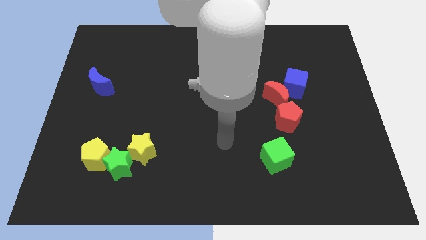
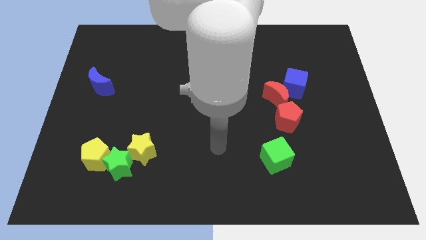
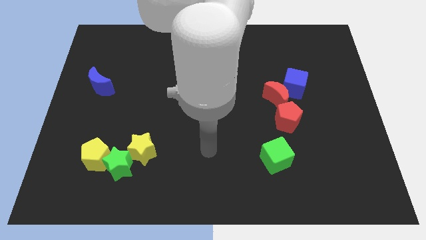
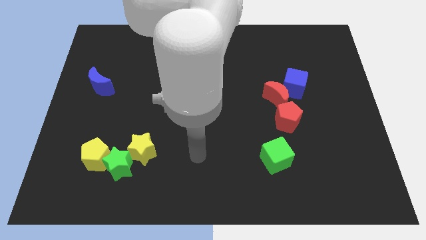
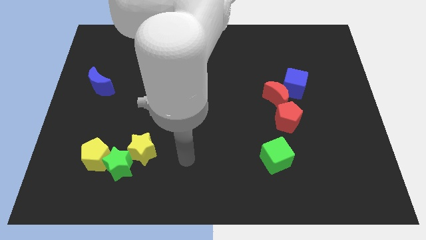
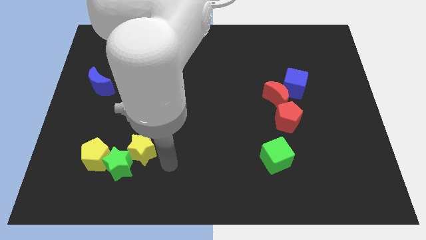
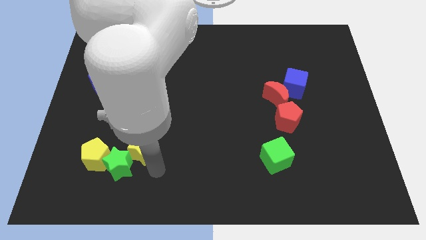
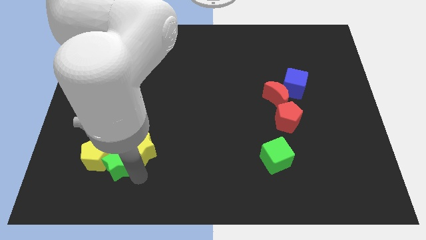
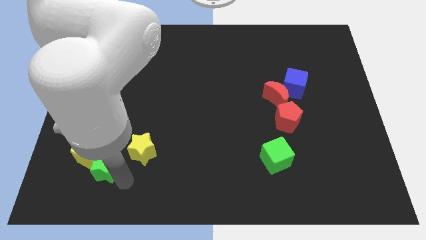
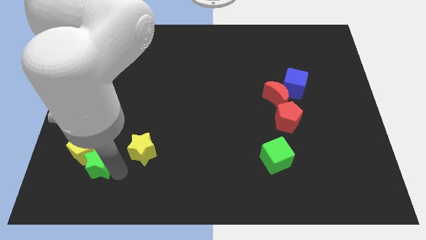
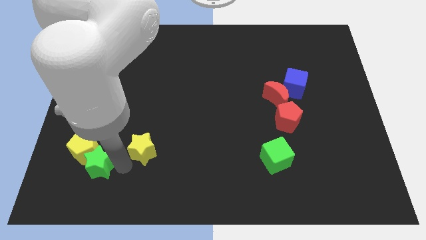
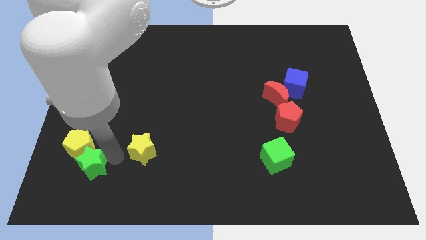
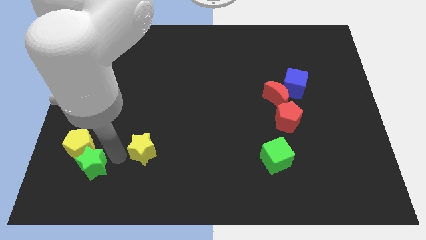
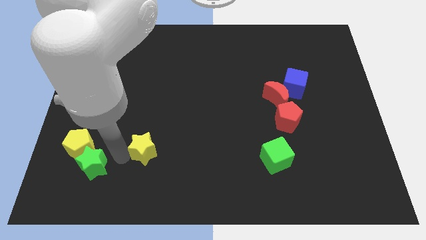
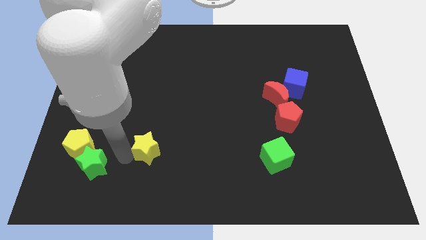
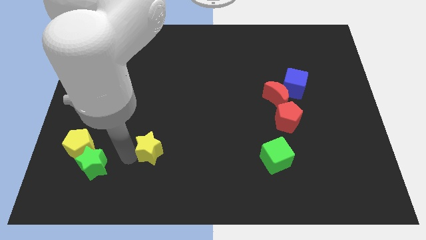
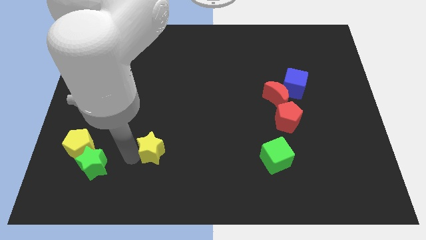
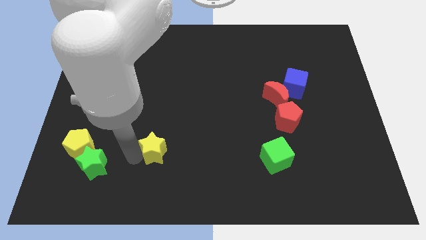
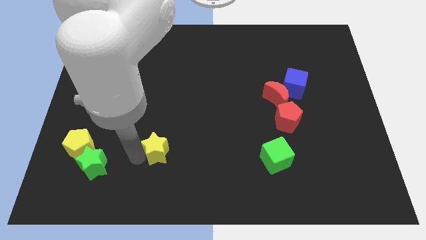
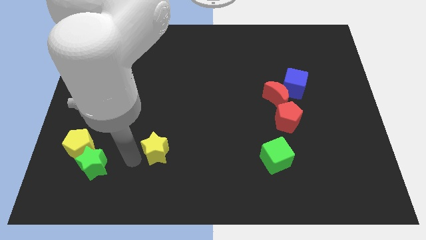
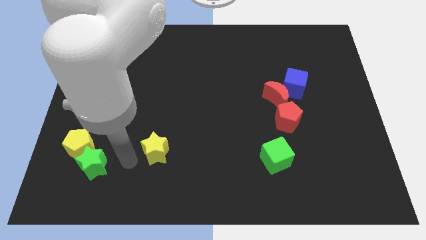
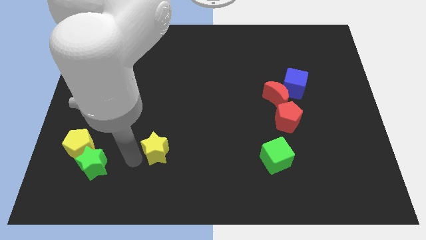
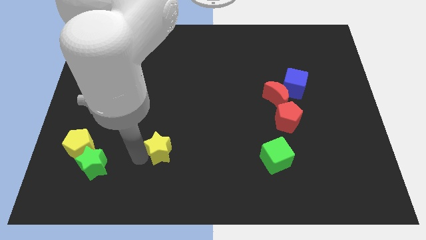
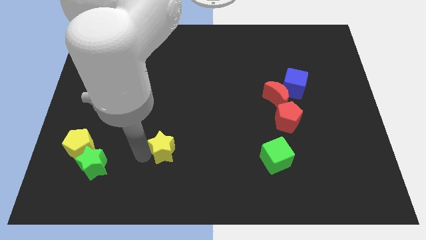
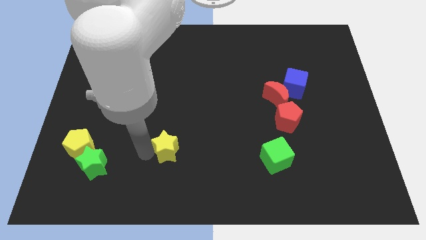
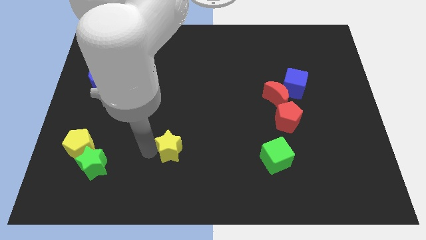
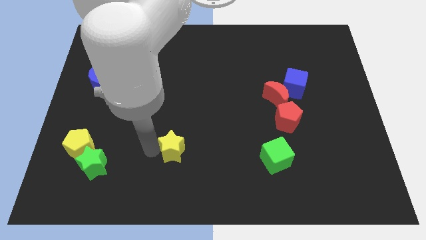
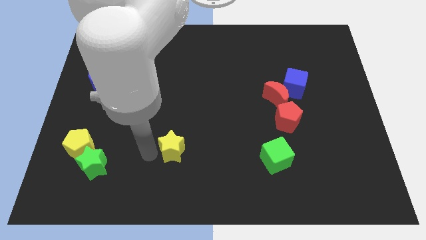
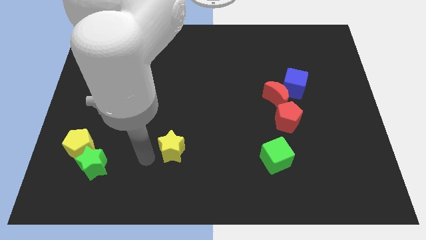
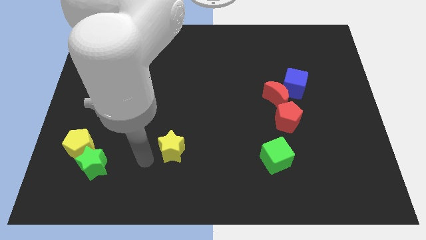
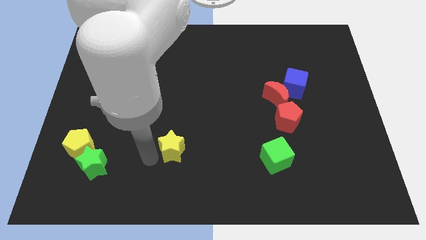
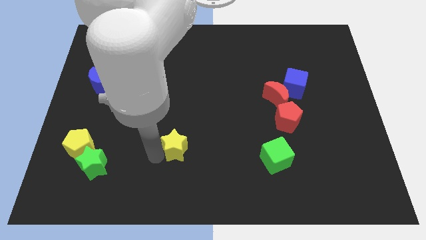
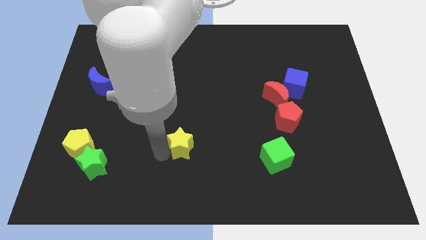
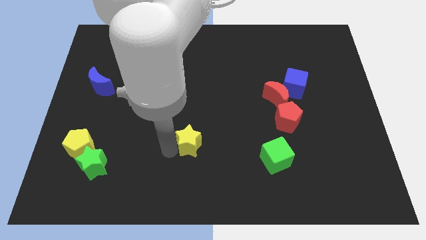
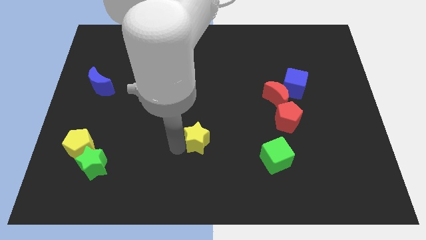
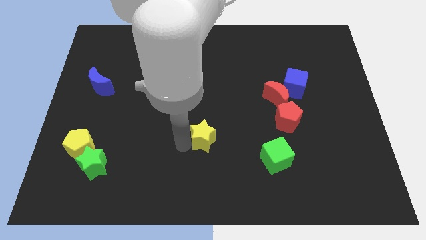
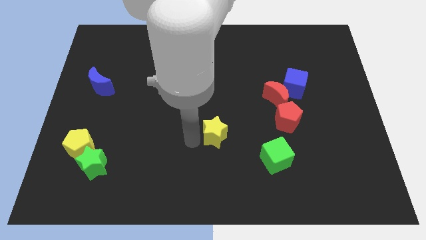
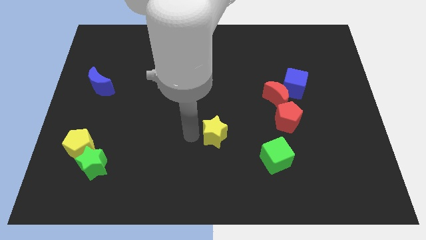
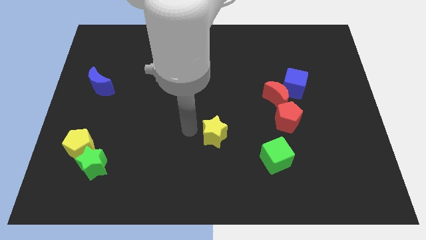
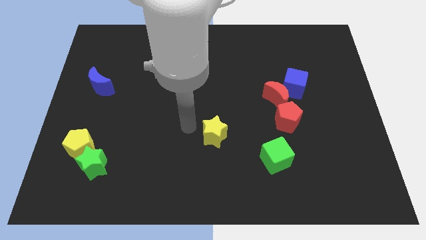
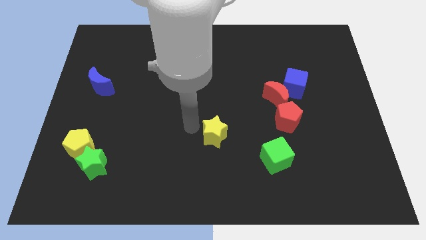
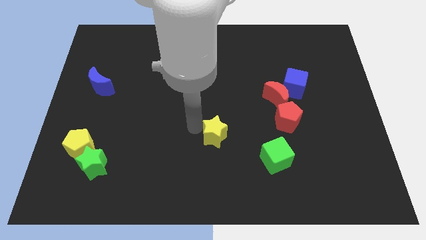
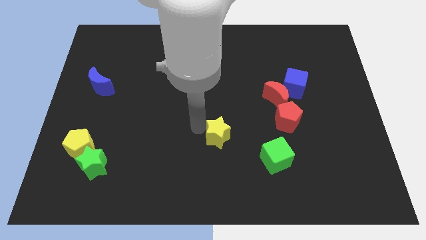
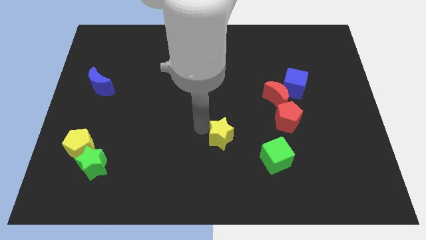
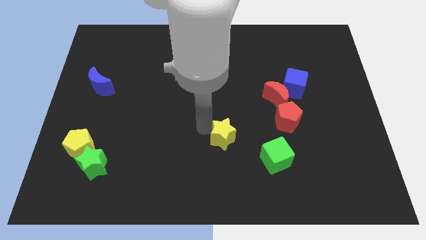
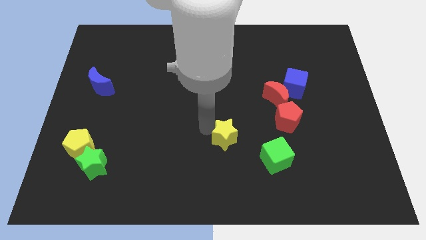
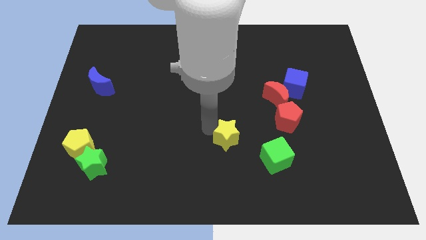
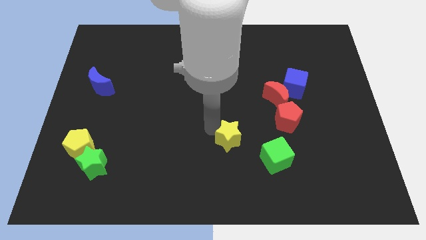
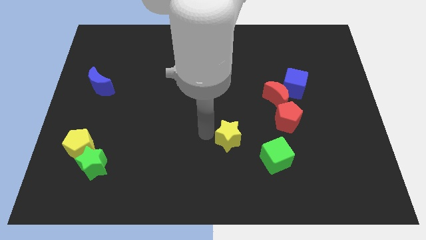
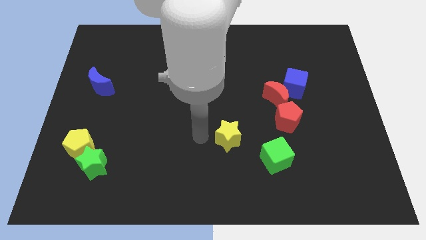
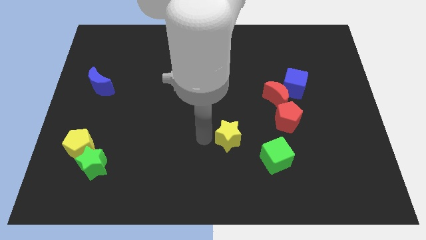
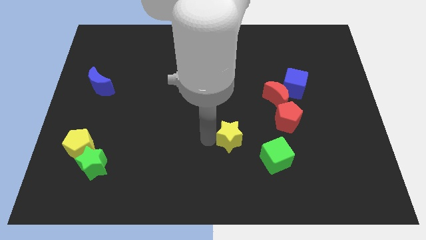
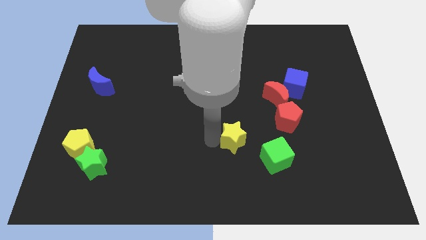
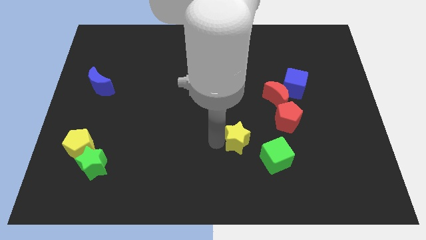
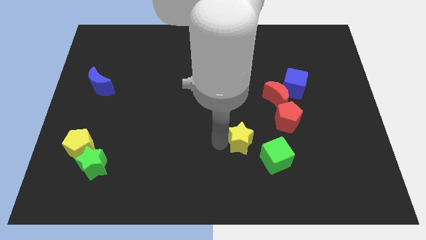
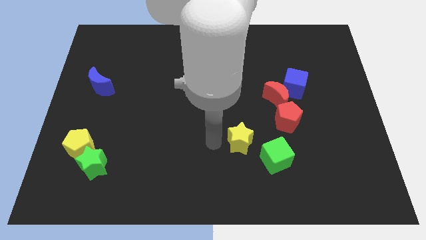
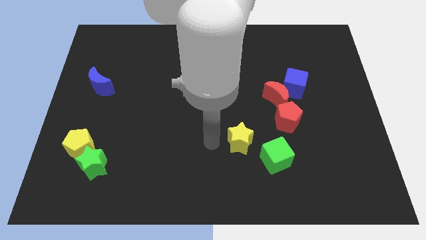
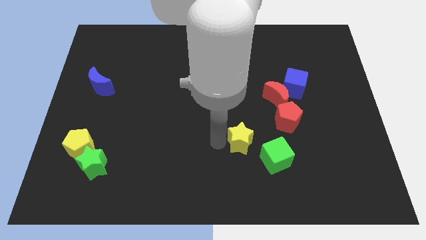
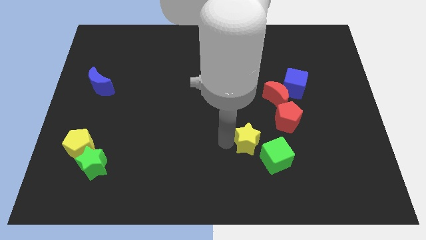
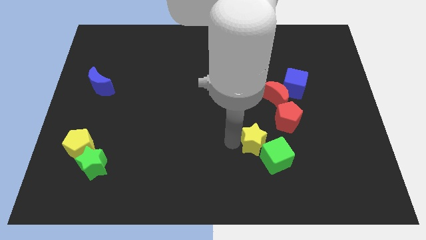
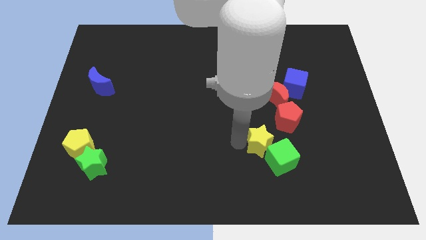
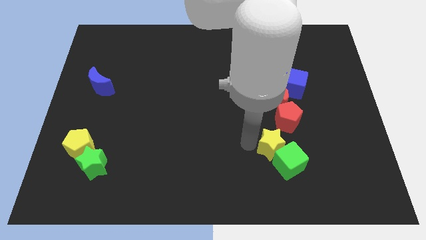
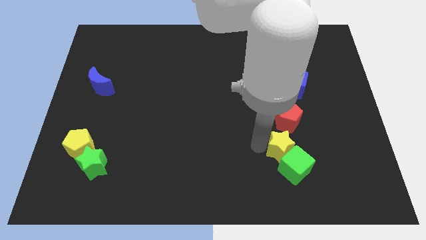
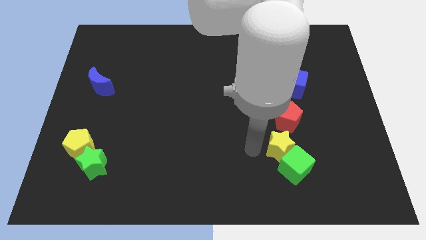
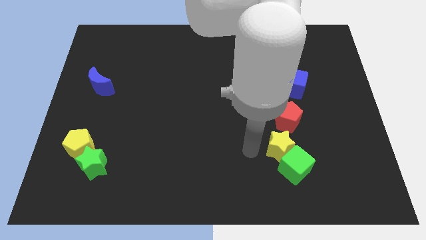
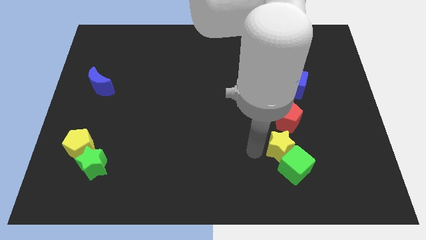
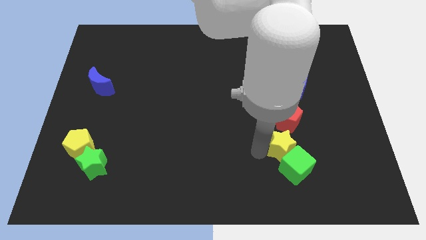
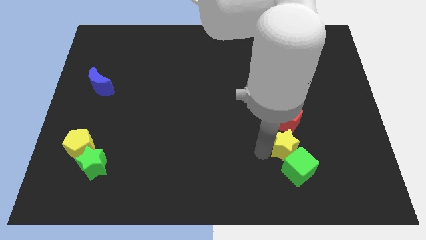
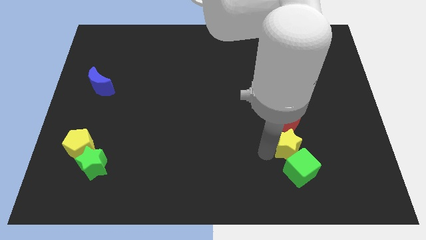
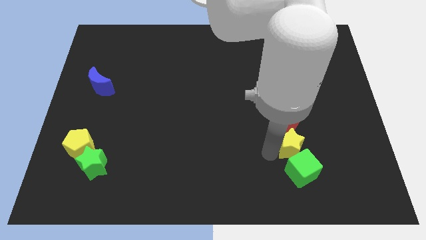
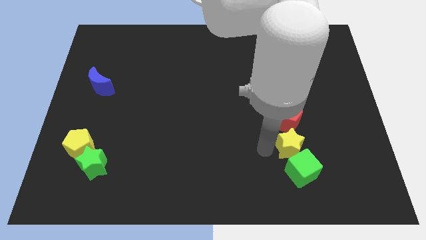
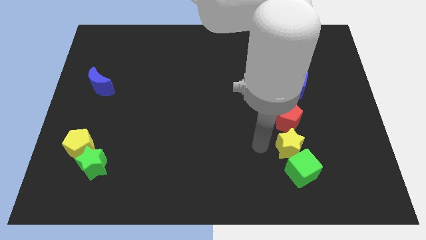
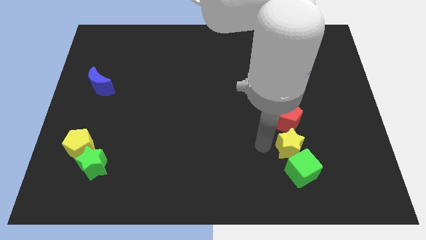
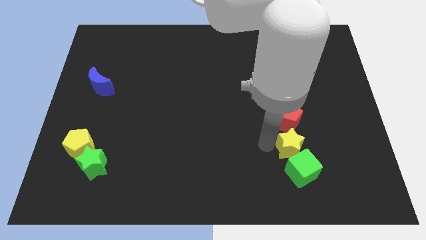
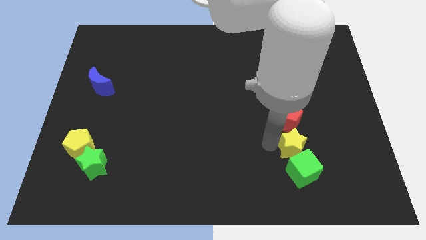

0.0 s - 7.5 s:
move the yellow star diagonally up and to the right of the green cube
